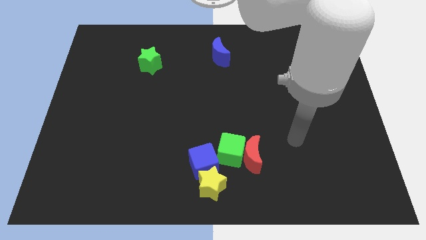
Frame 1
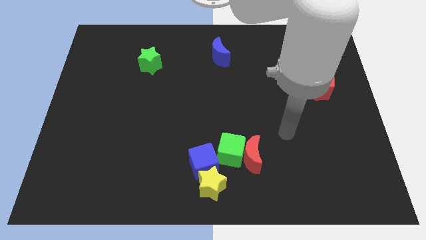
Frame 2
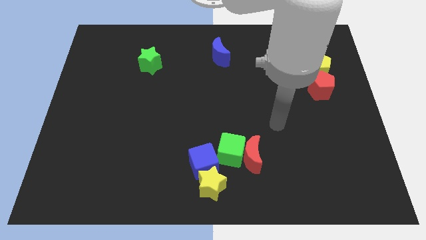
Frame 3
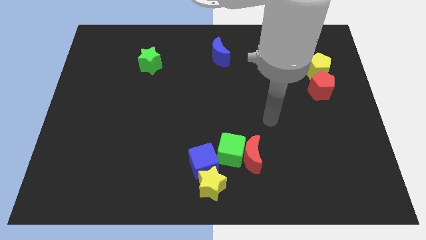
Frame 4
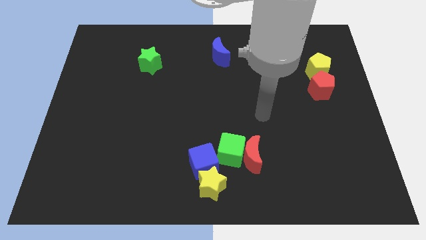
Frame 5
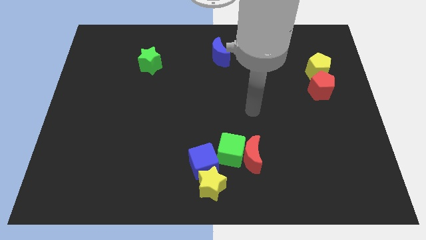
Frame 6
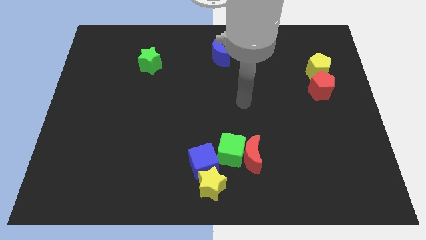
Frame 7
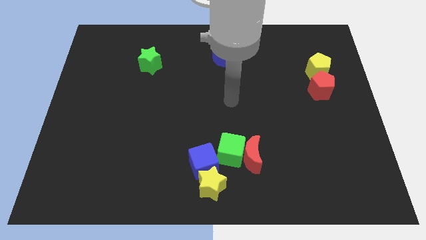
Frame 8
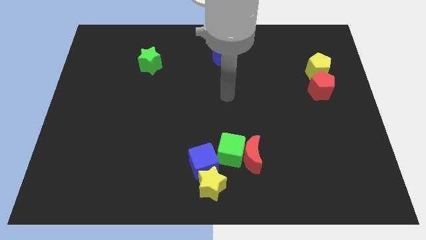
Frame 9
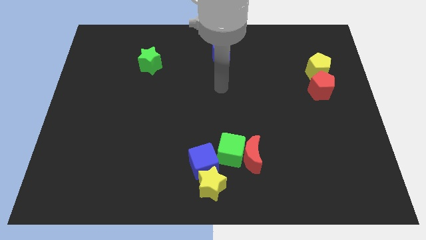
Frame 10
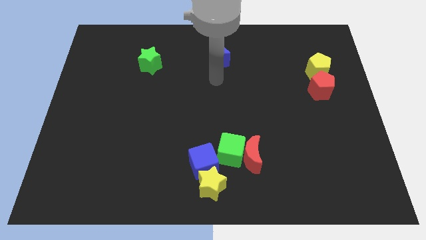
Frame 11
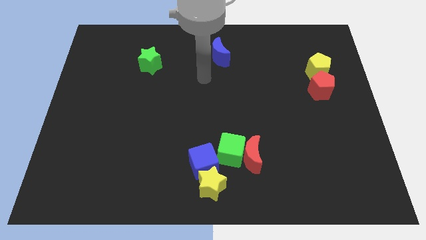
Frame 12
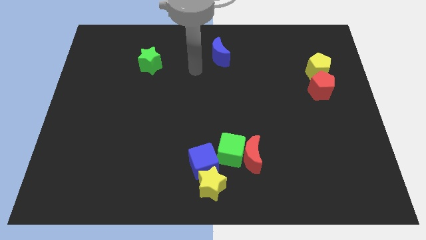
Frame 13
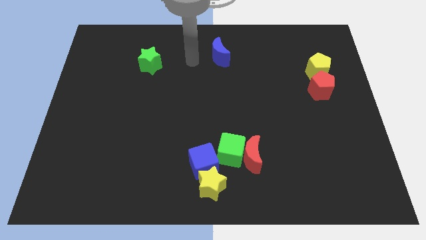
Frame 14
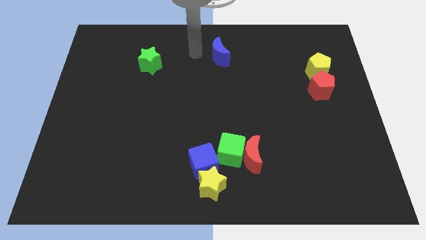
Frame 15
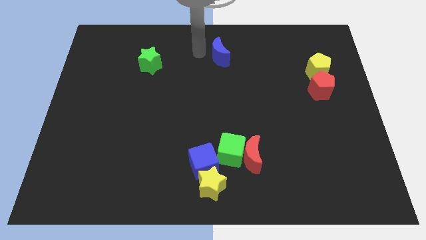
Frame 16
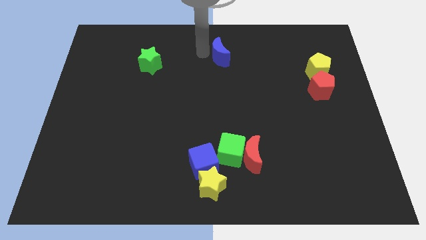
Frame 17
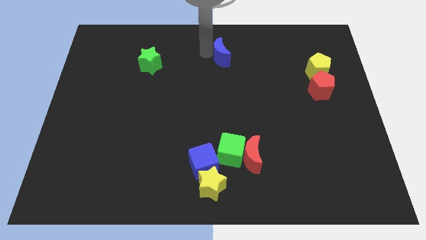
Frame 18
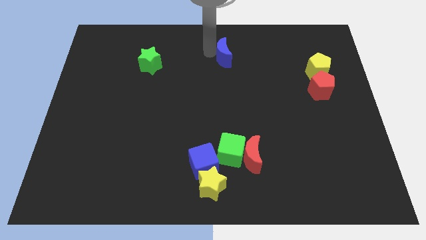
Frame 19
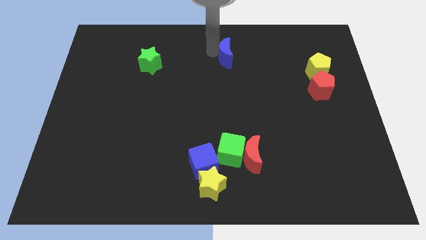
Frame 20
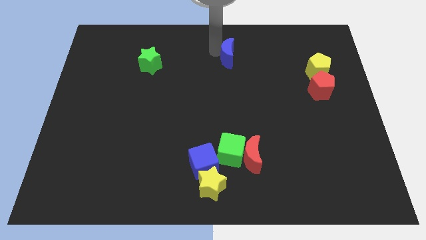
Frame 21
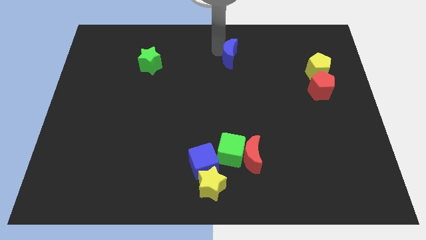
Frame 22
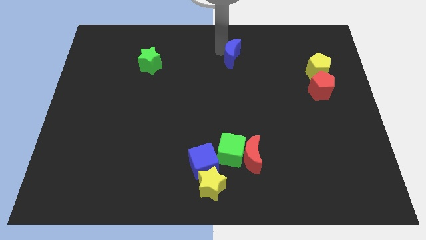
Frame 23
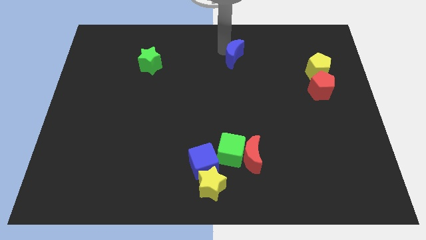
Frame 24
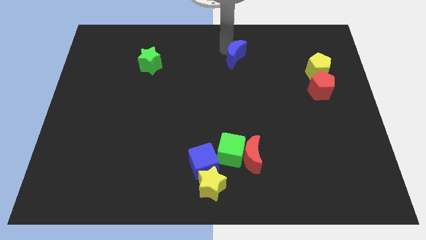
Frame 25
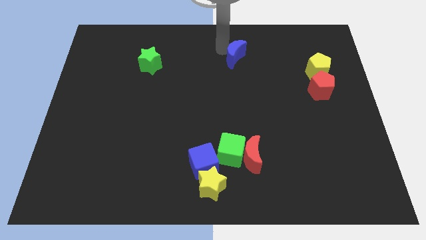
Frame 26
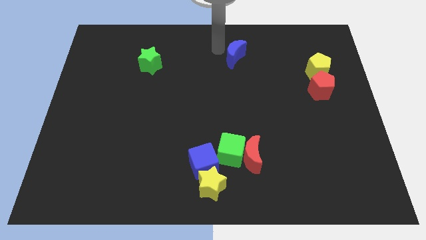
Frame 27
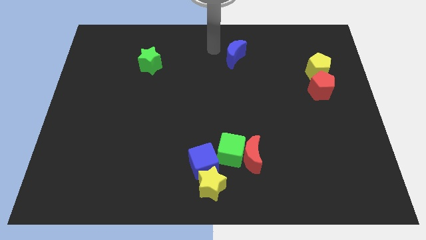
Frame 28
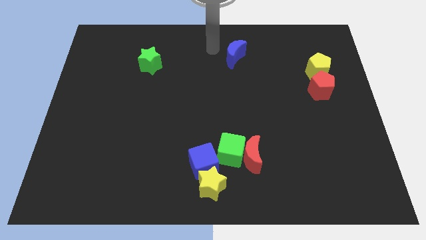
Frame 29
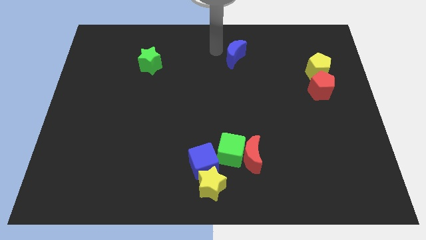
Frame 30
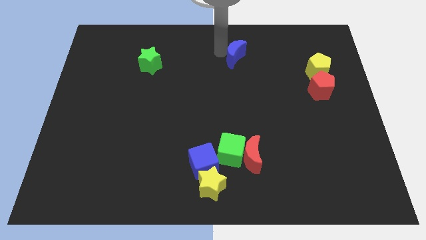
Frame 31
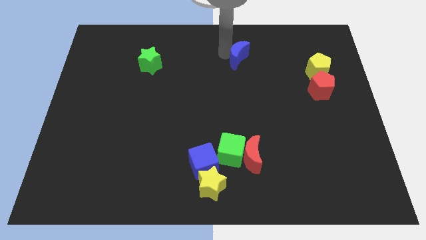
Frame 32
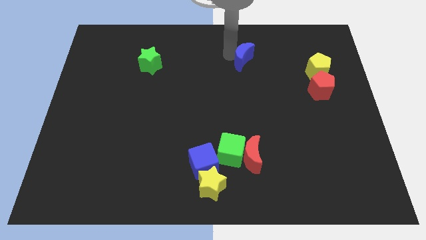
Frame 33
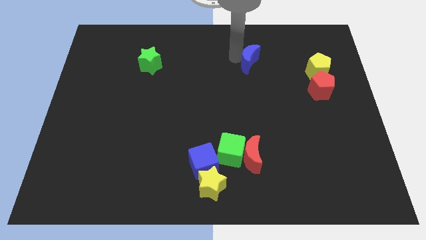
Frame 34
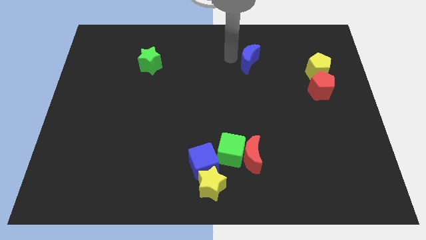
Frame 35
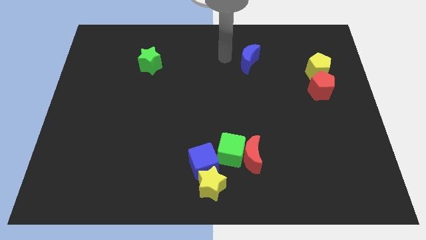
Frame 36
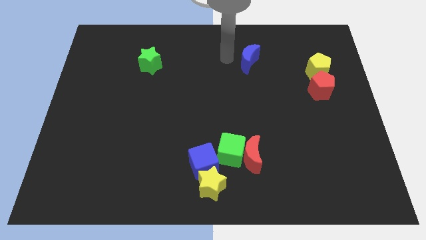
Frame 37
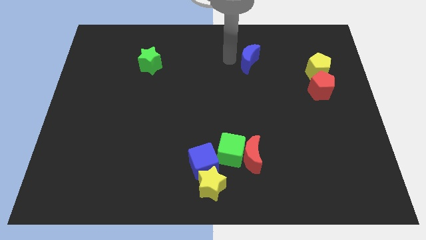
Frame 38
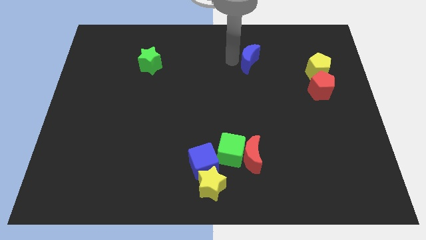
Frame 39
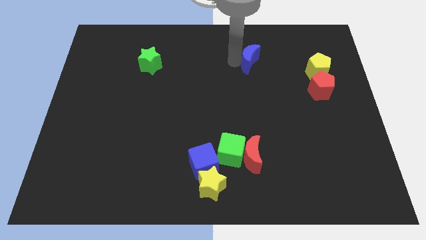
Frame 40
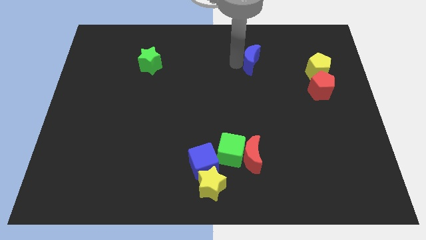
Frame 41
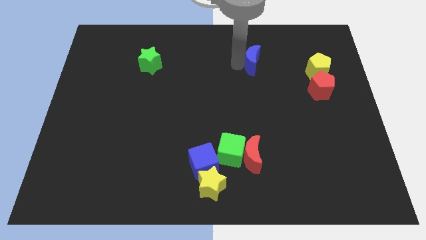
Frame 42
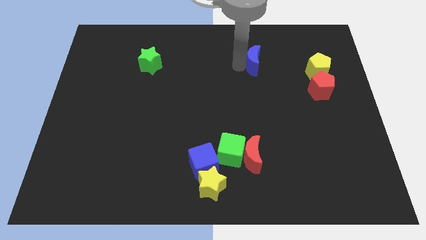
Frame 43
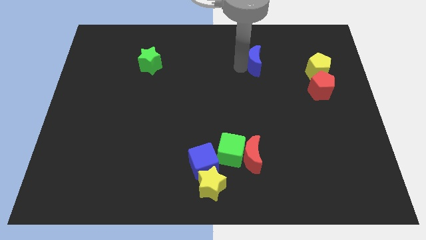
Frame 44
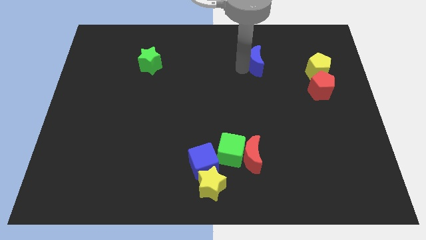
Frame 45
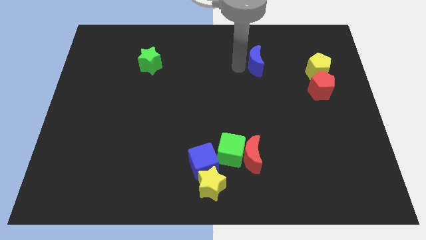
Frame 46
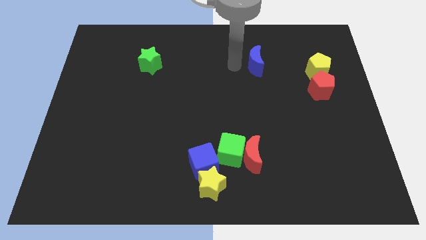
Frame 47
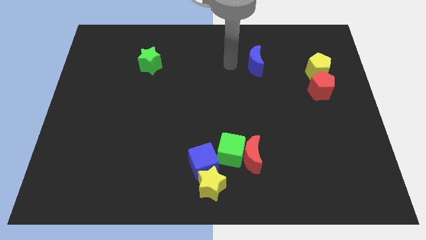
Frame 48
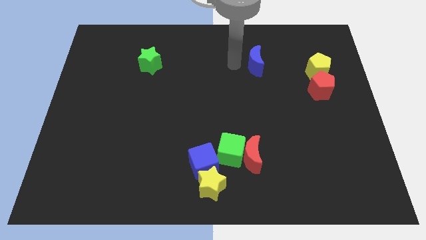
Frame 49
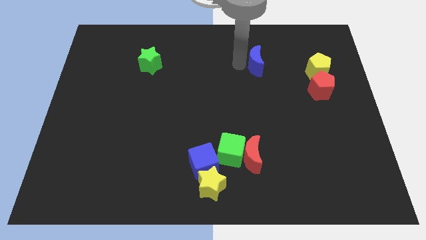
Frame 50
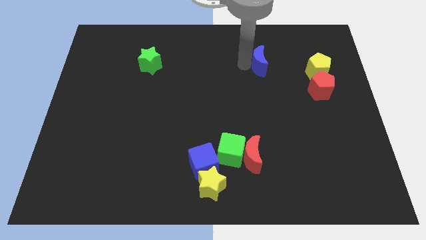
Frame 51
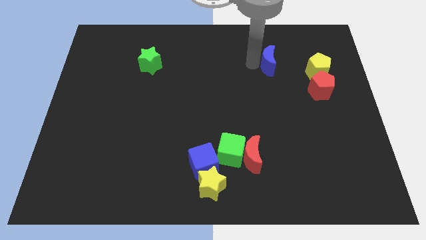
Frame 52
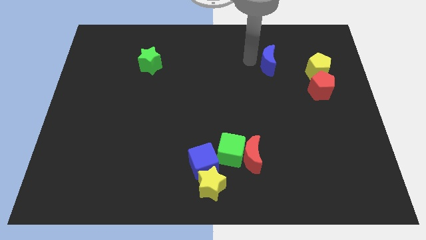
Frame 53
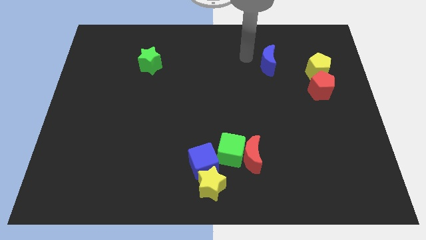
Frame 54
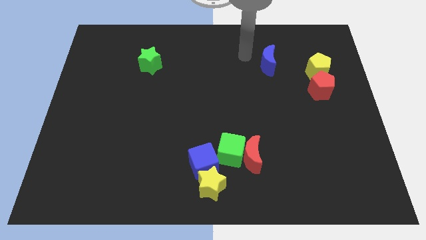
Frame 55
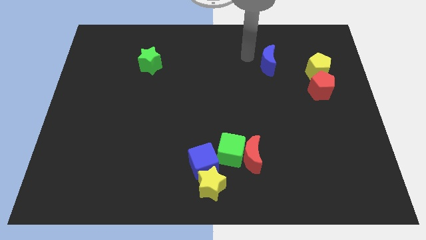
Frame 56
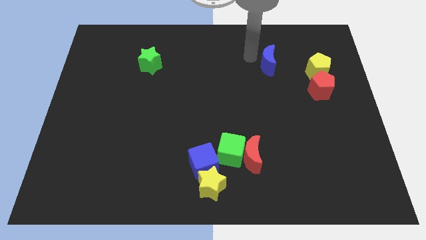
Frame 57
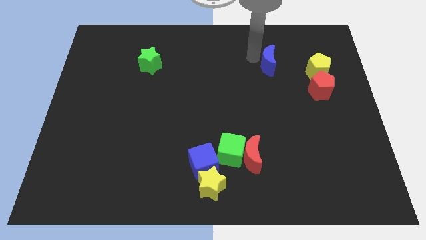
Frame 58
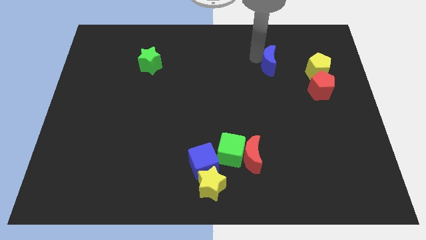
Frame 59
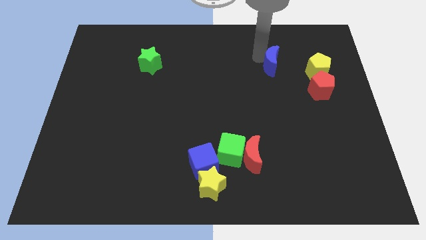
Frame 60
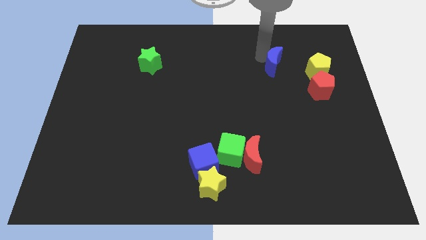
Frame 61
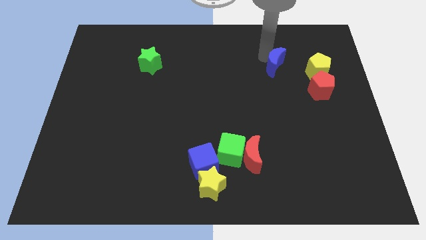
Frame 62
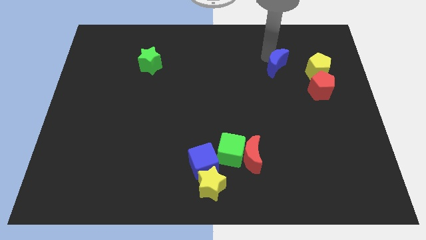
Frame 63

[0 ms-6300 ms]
put the blue moon to the top left side of the red pentagon

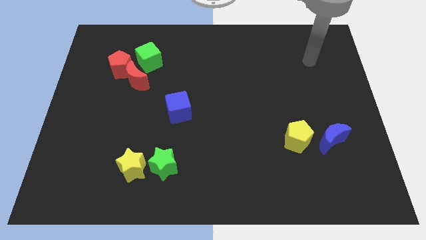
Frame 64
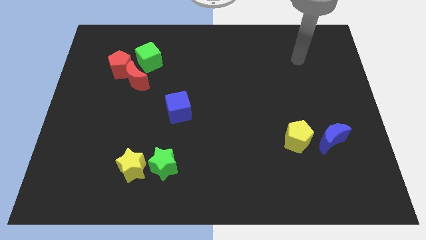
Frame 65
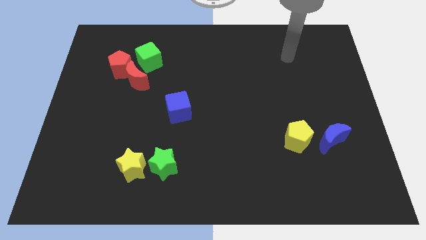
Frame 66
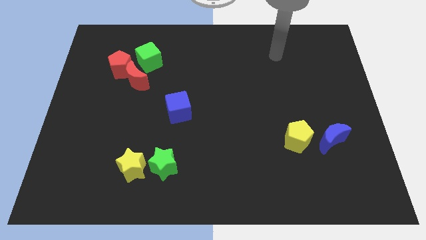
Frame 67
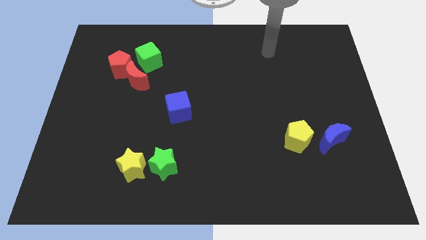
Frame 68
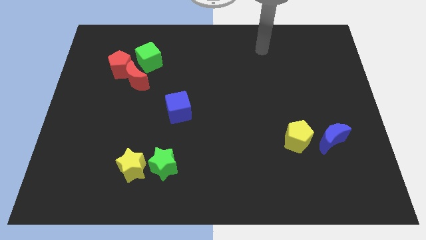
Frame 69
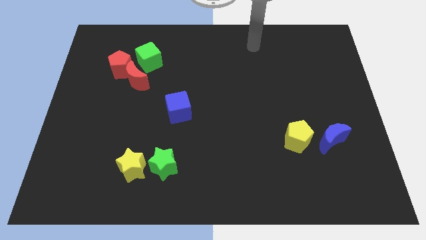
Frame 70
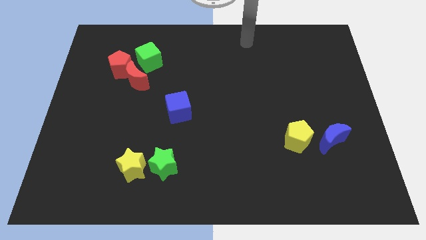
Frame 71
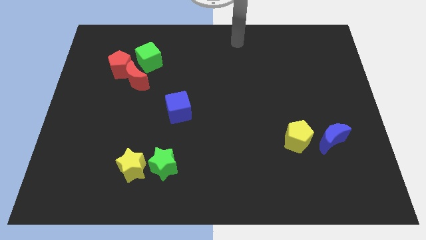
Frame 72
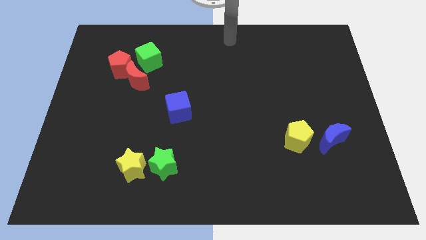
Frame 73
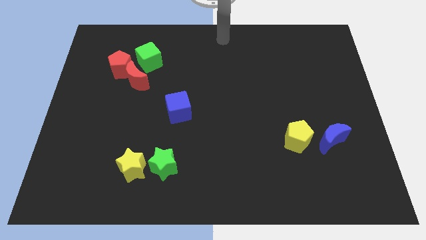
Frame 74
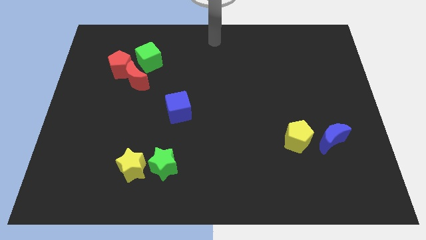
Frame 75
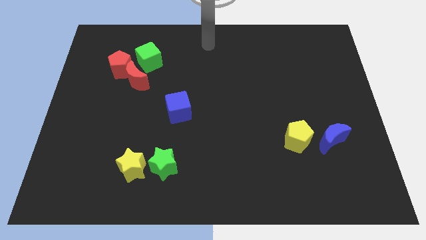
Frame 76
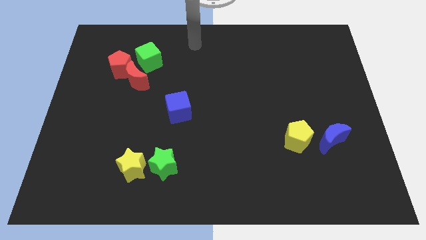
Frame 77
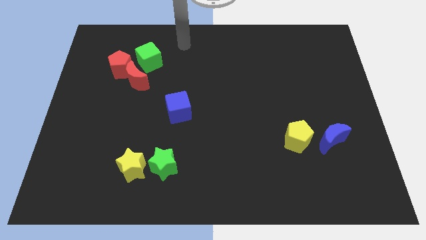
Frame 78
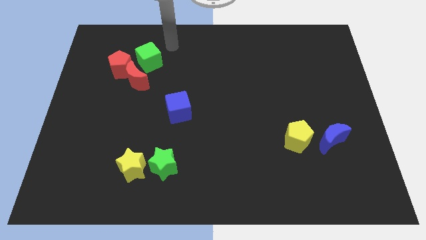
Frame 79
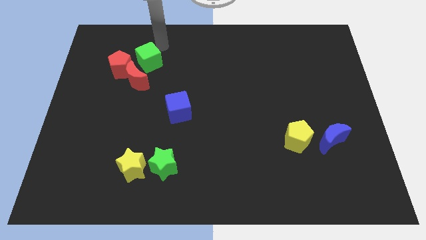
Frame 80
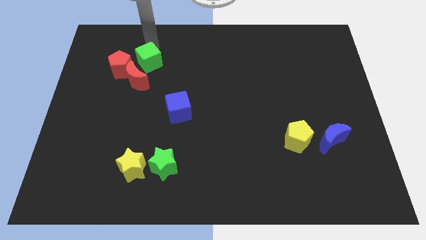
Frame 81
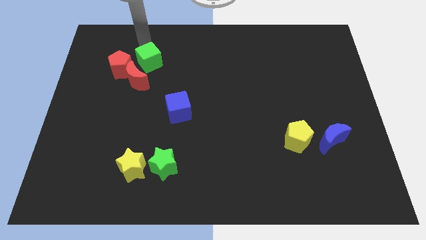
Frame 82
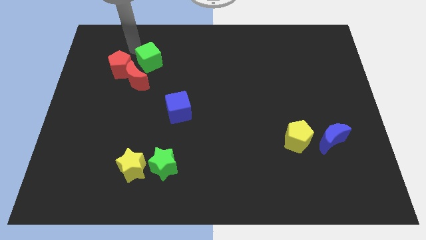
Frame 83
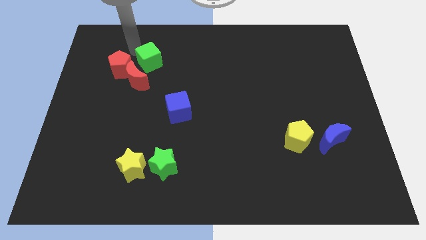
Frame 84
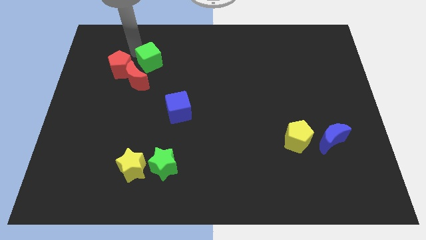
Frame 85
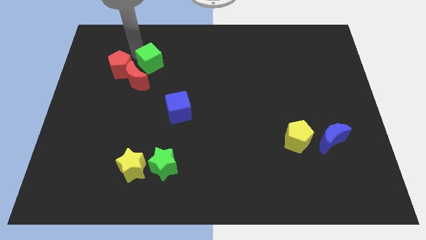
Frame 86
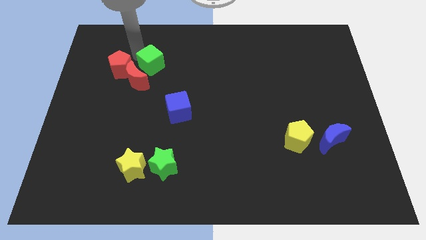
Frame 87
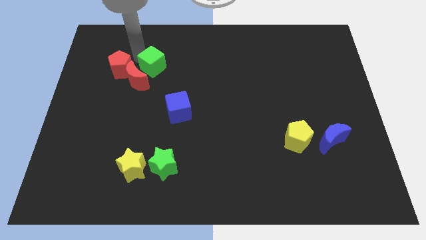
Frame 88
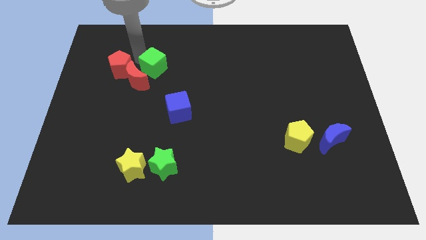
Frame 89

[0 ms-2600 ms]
slide the green cube to the right side of the red moon
